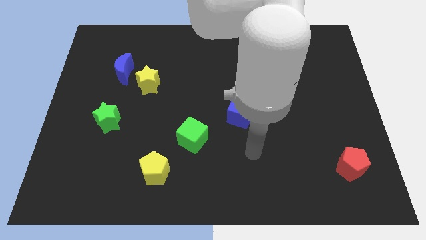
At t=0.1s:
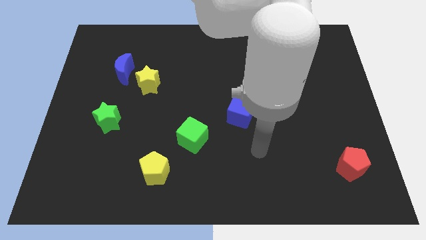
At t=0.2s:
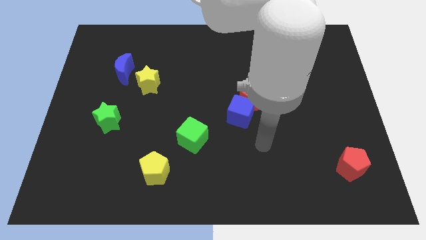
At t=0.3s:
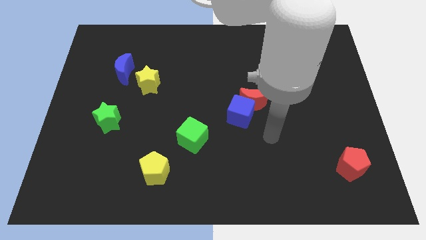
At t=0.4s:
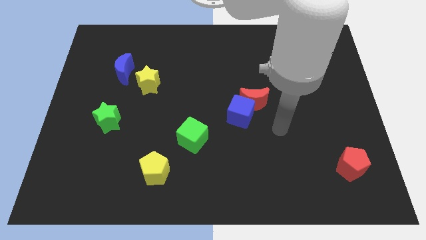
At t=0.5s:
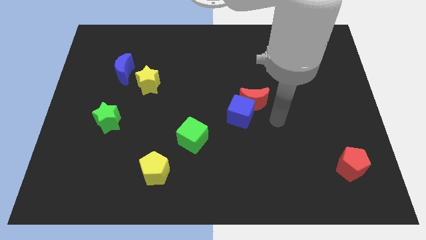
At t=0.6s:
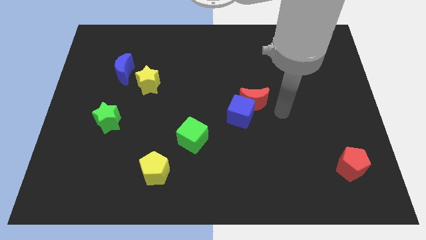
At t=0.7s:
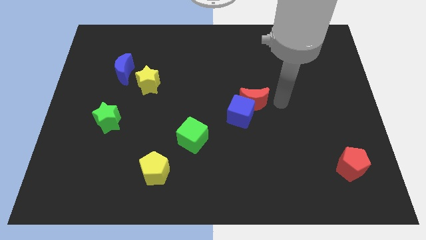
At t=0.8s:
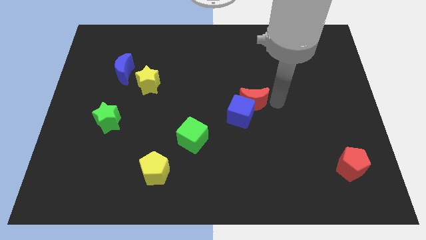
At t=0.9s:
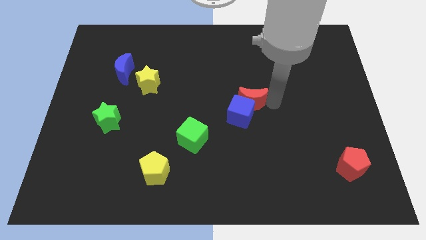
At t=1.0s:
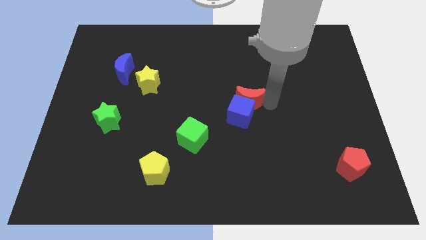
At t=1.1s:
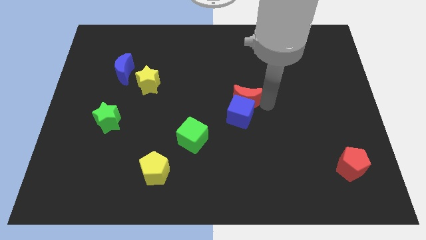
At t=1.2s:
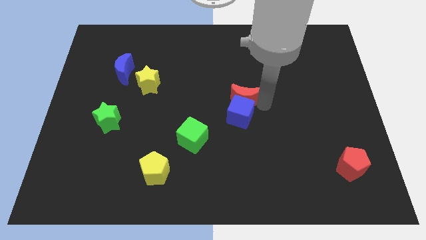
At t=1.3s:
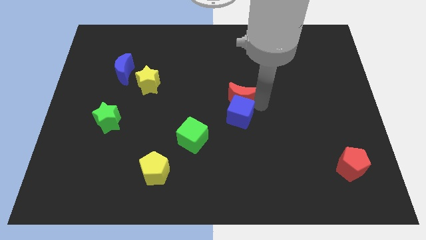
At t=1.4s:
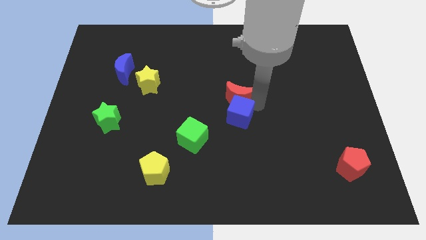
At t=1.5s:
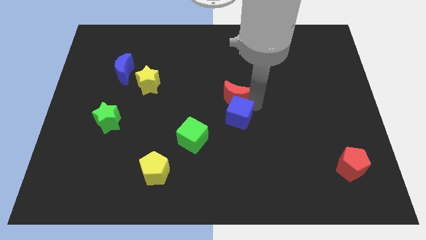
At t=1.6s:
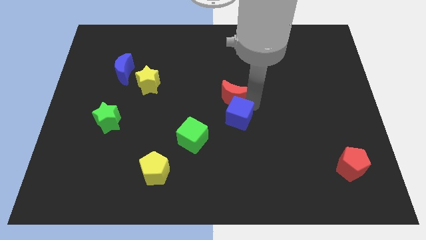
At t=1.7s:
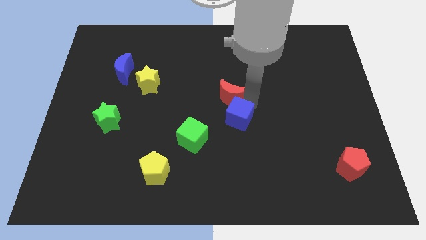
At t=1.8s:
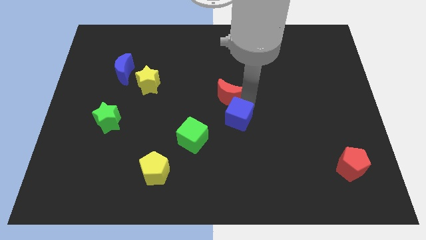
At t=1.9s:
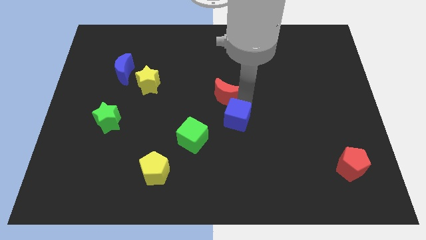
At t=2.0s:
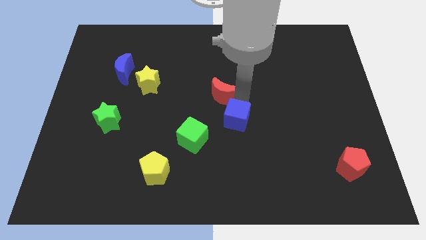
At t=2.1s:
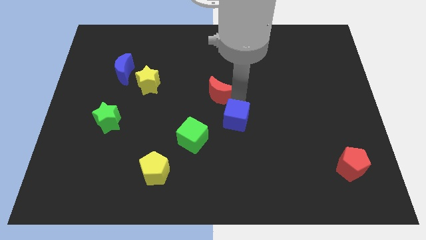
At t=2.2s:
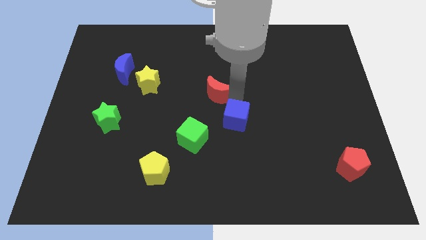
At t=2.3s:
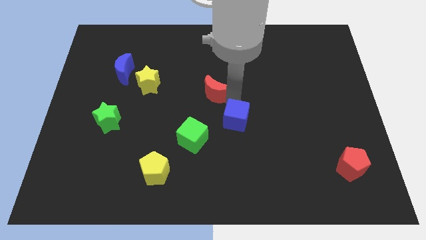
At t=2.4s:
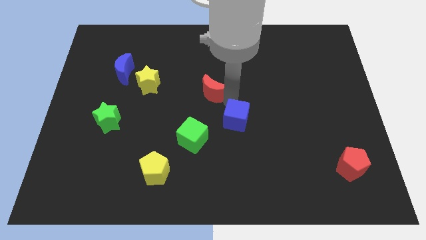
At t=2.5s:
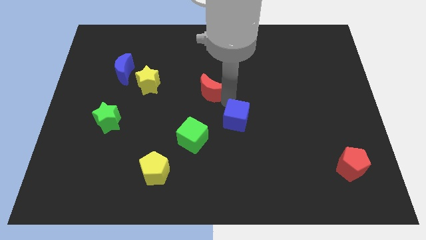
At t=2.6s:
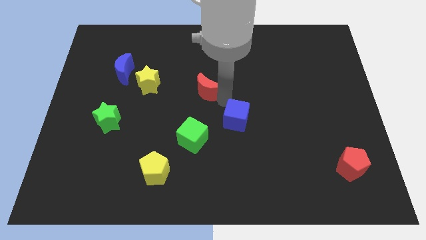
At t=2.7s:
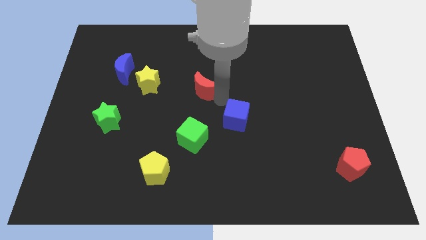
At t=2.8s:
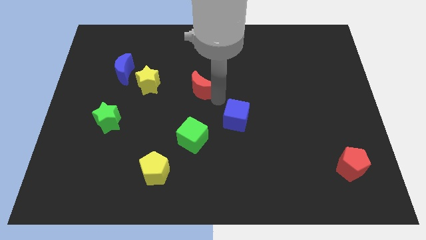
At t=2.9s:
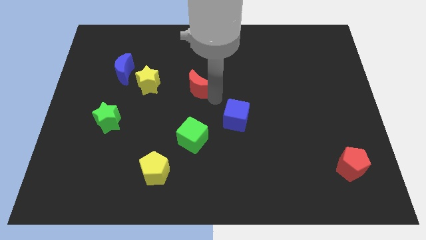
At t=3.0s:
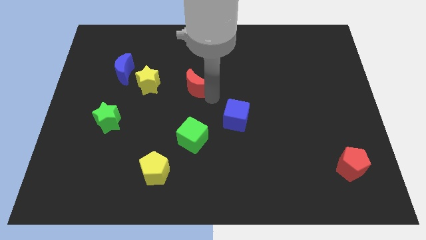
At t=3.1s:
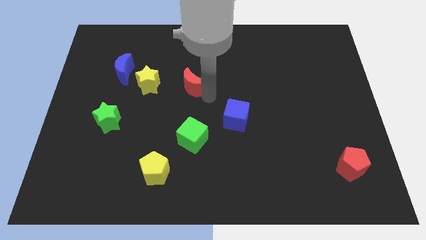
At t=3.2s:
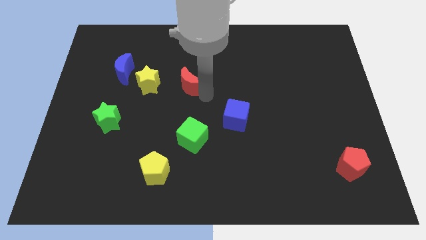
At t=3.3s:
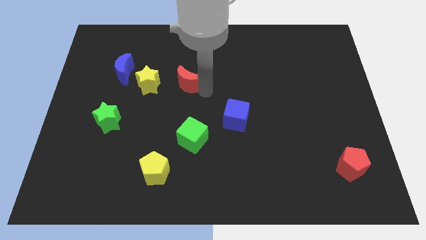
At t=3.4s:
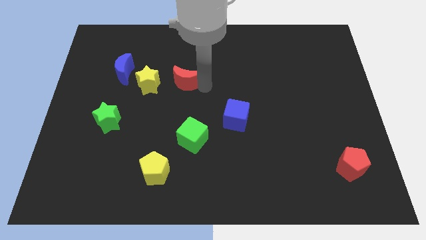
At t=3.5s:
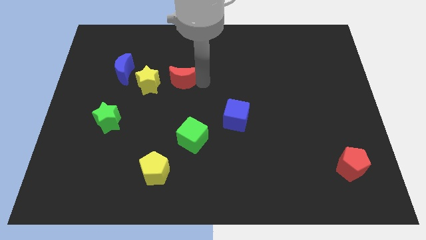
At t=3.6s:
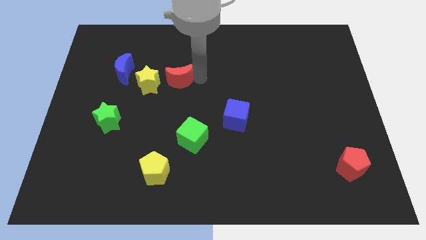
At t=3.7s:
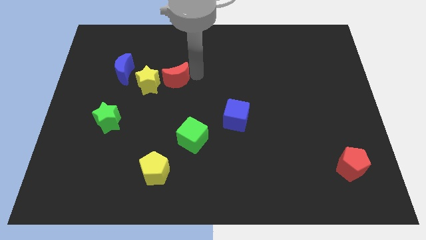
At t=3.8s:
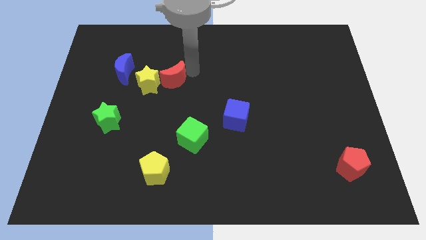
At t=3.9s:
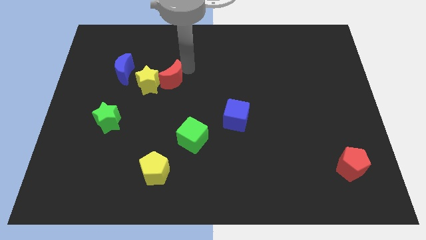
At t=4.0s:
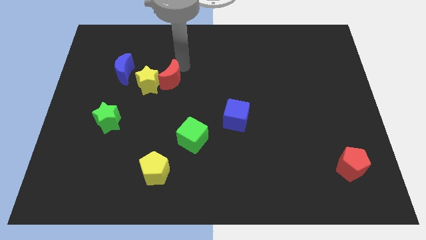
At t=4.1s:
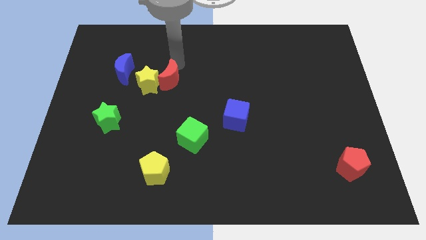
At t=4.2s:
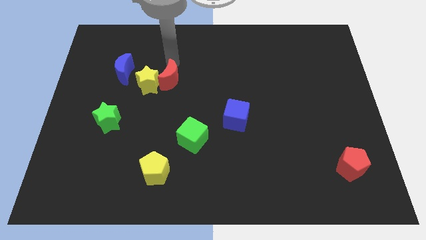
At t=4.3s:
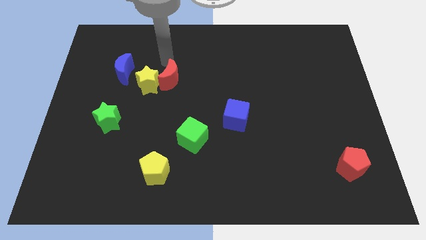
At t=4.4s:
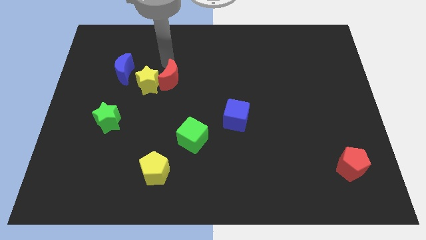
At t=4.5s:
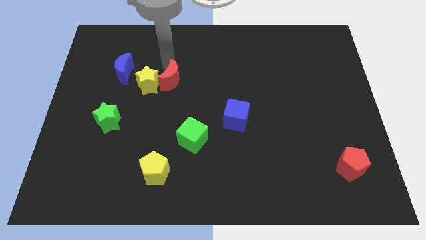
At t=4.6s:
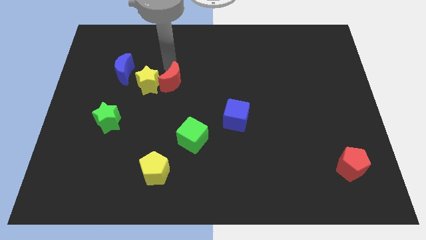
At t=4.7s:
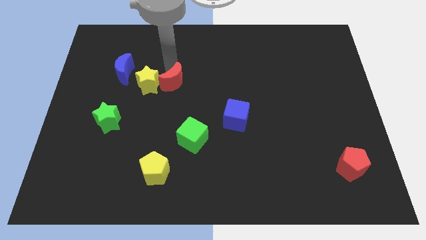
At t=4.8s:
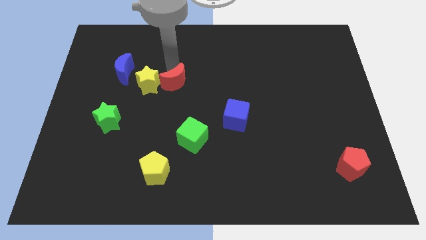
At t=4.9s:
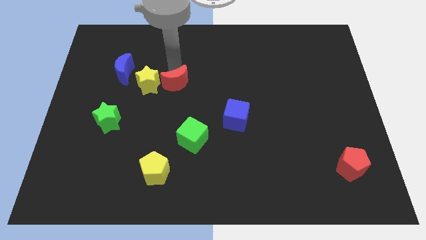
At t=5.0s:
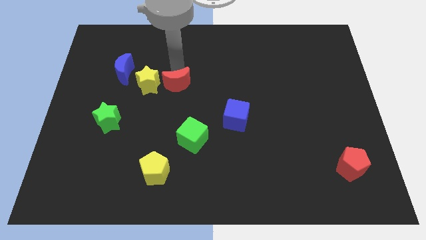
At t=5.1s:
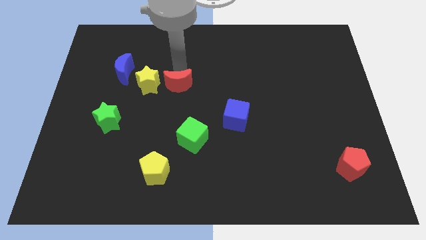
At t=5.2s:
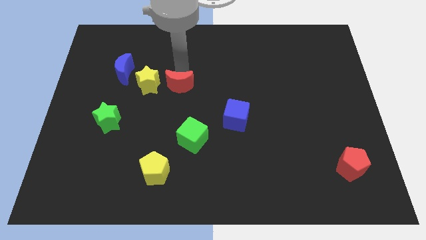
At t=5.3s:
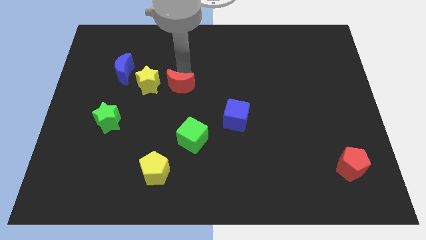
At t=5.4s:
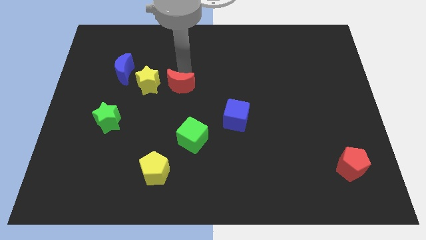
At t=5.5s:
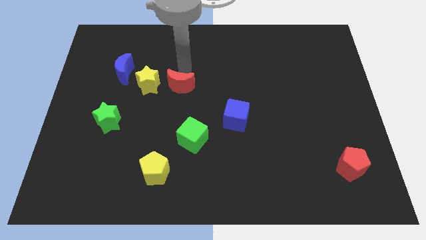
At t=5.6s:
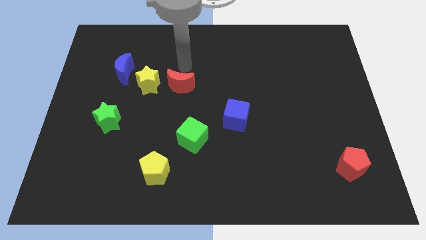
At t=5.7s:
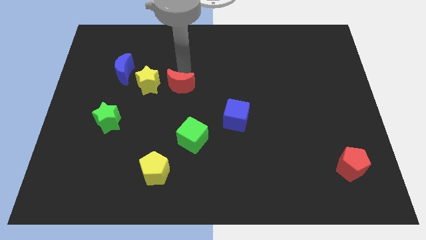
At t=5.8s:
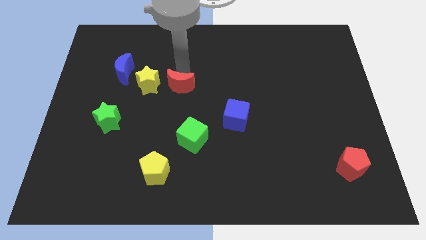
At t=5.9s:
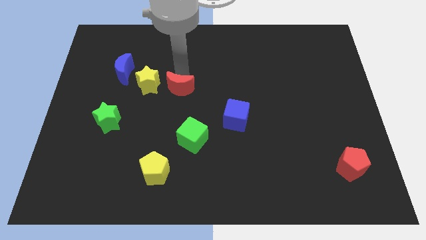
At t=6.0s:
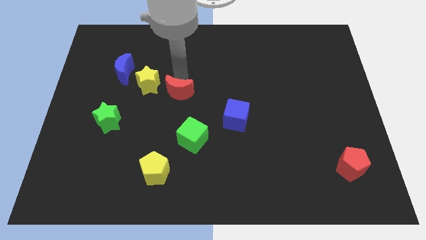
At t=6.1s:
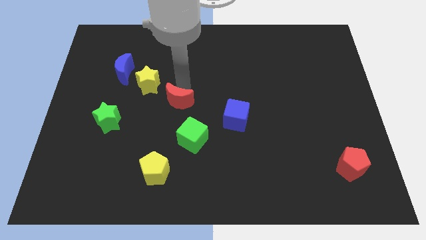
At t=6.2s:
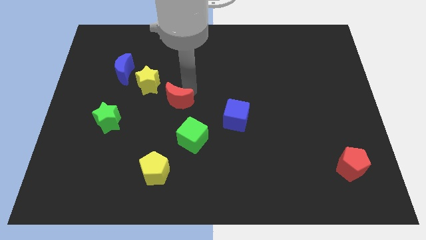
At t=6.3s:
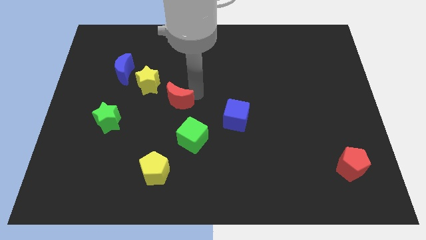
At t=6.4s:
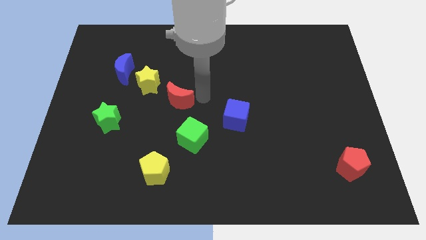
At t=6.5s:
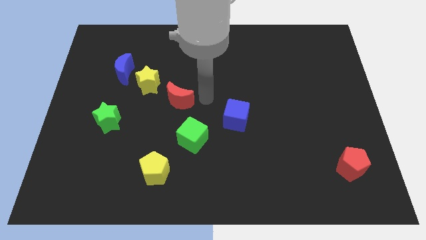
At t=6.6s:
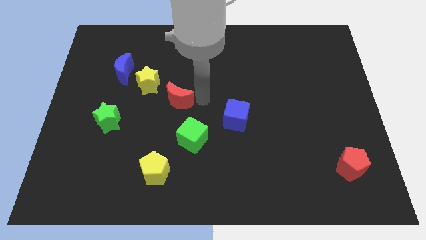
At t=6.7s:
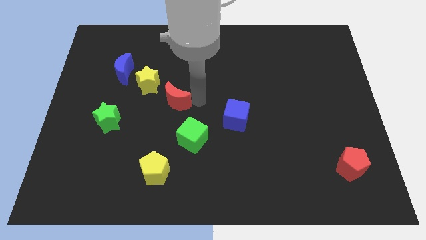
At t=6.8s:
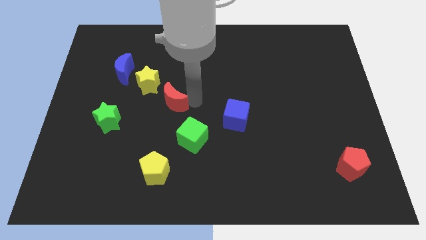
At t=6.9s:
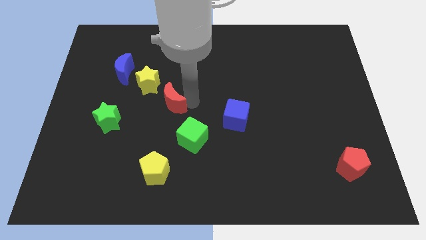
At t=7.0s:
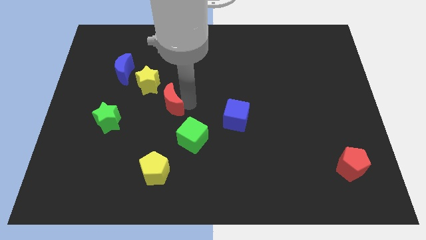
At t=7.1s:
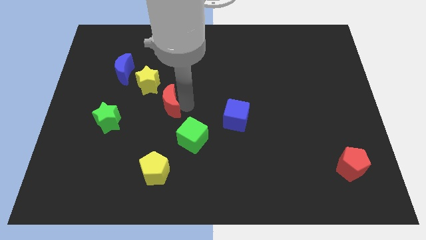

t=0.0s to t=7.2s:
slide the red moon to the left

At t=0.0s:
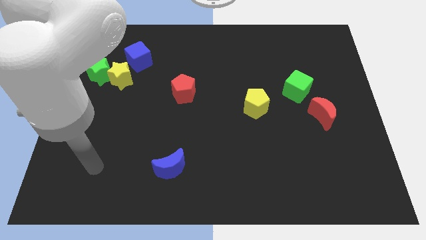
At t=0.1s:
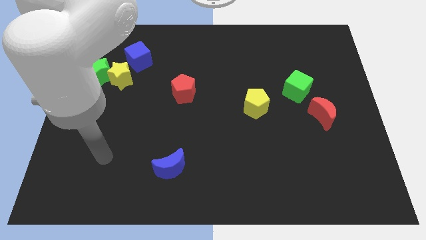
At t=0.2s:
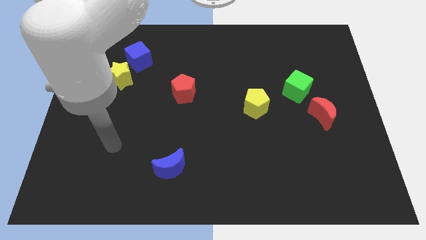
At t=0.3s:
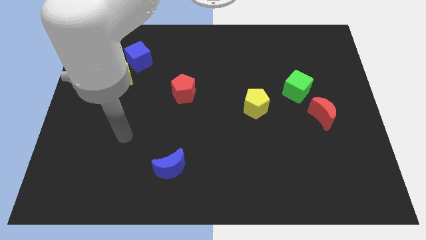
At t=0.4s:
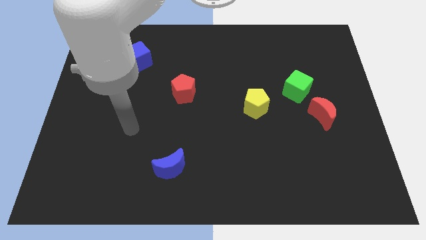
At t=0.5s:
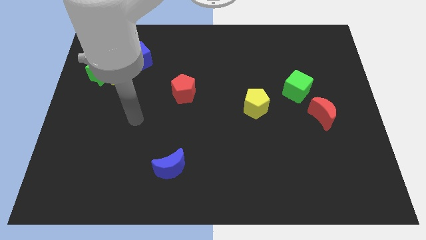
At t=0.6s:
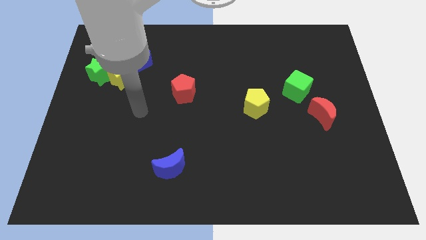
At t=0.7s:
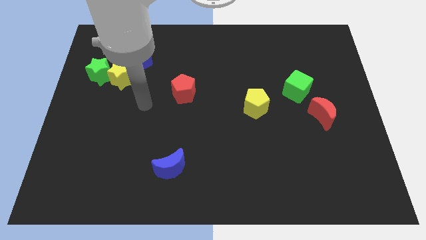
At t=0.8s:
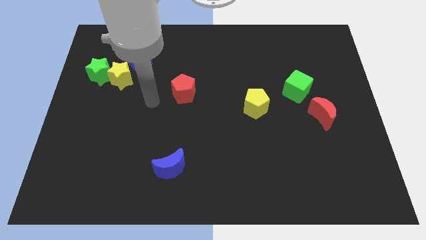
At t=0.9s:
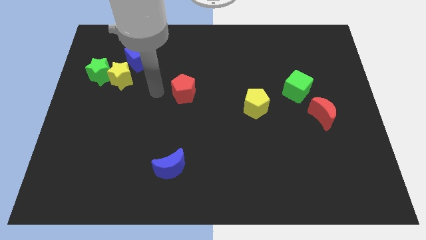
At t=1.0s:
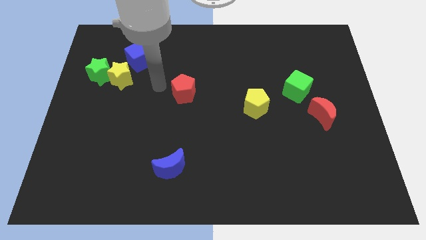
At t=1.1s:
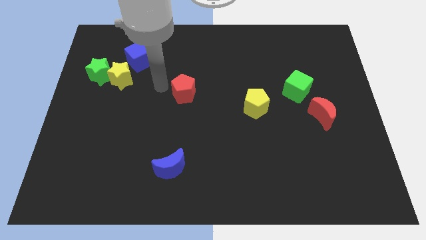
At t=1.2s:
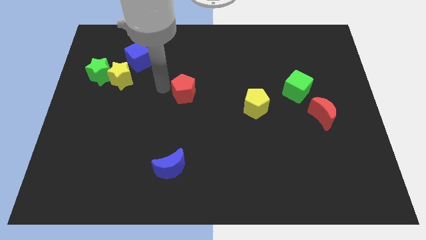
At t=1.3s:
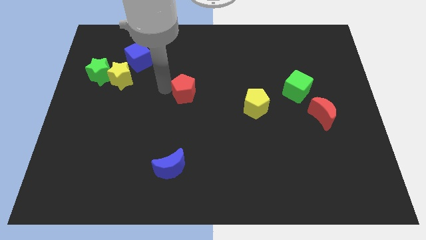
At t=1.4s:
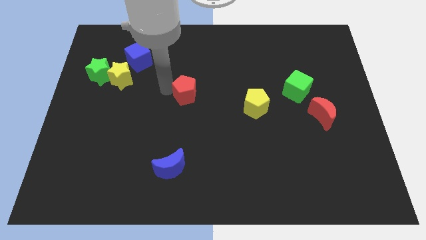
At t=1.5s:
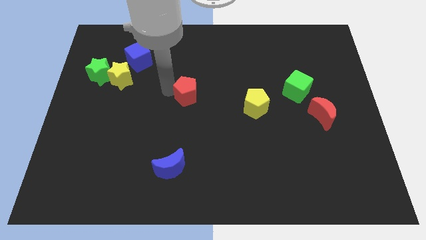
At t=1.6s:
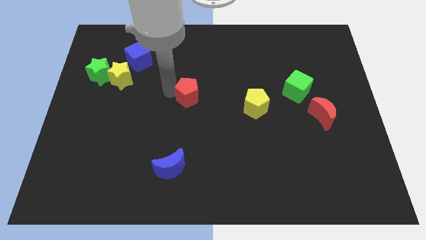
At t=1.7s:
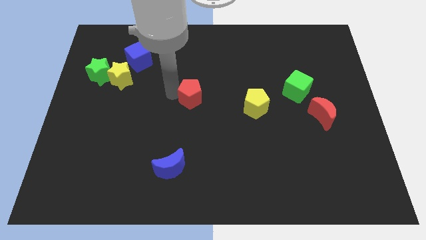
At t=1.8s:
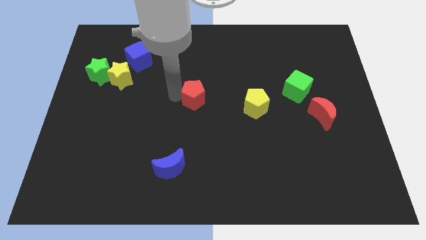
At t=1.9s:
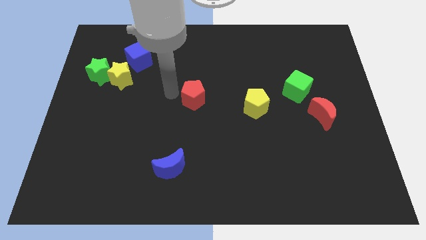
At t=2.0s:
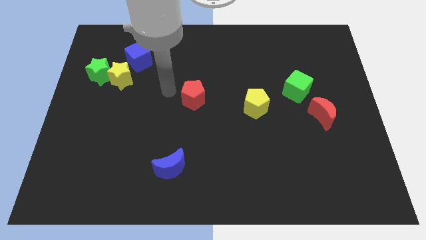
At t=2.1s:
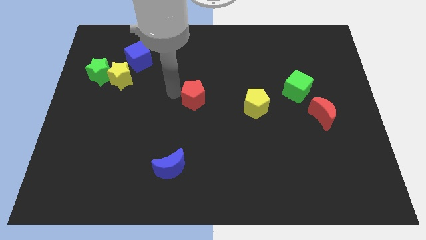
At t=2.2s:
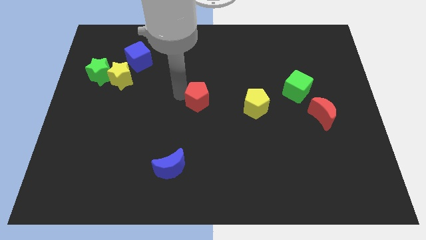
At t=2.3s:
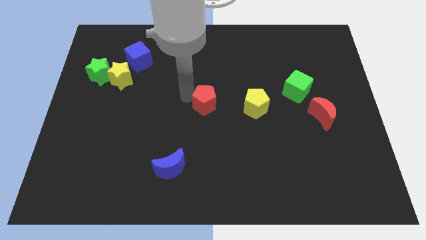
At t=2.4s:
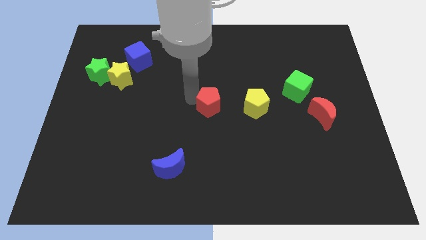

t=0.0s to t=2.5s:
slightly slide the red pentagon down and then to the right
